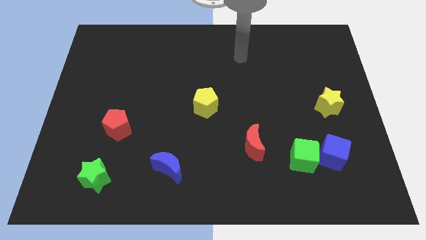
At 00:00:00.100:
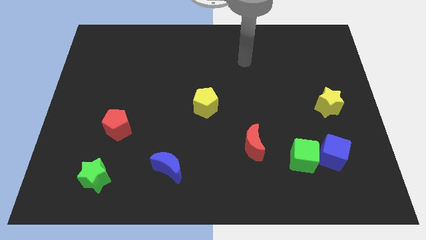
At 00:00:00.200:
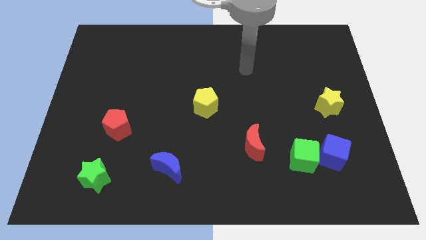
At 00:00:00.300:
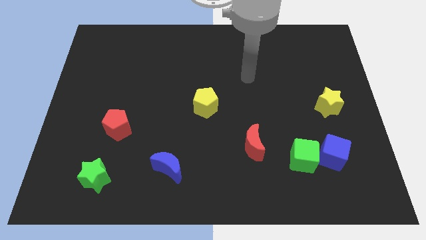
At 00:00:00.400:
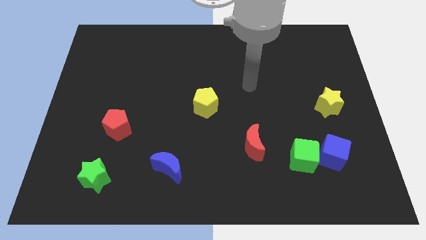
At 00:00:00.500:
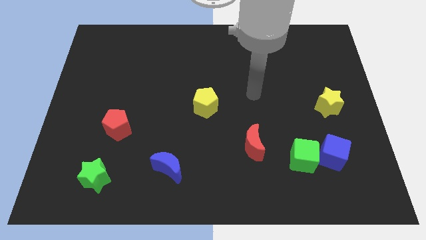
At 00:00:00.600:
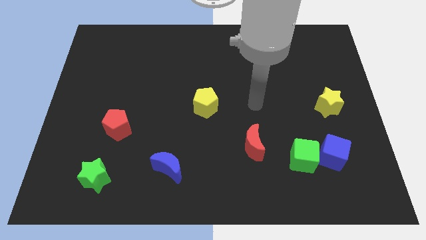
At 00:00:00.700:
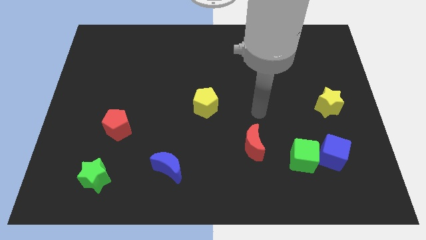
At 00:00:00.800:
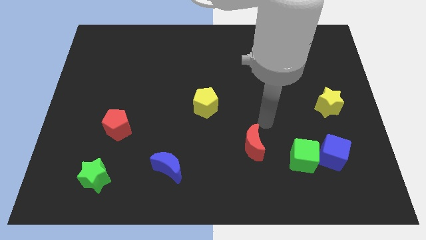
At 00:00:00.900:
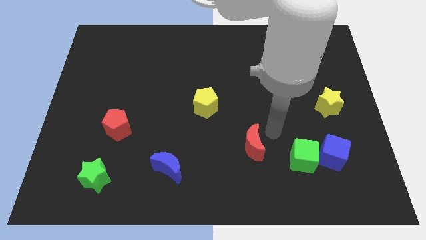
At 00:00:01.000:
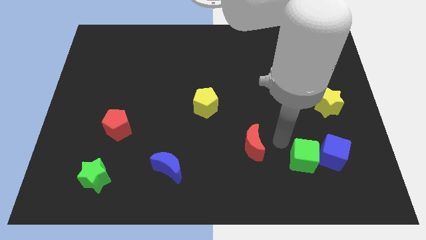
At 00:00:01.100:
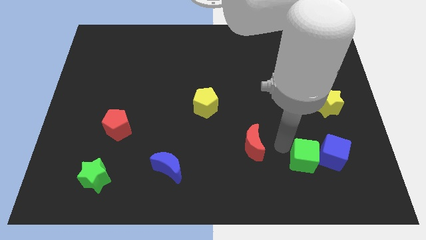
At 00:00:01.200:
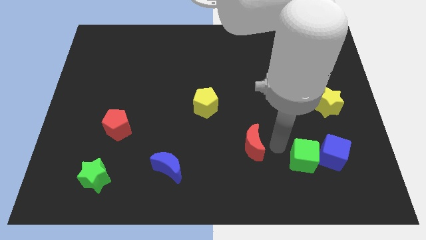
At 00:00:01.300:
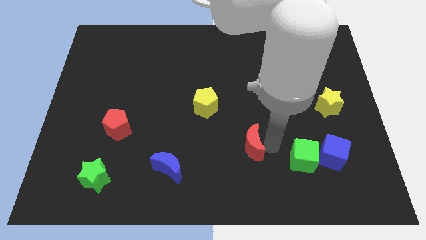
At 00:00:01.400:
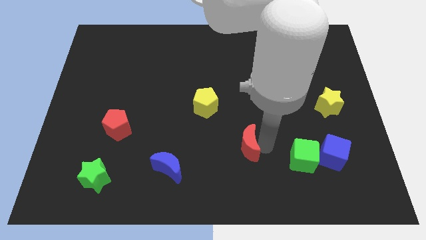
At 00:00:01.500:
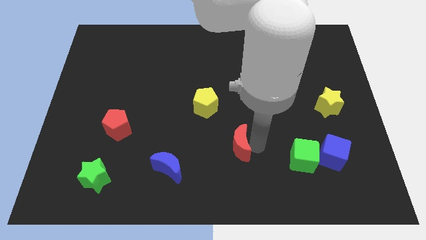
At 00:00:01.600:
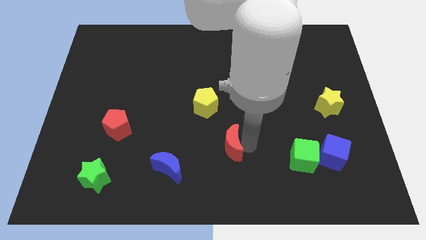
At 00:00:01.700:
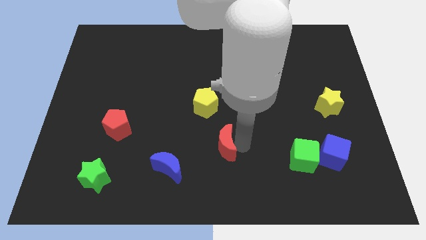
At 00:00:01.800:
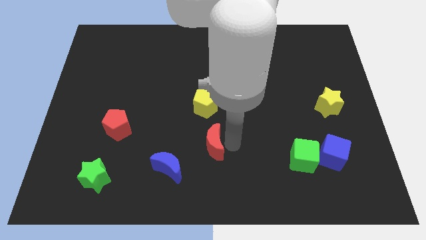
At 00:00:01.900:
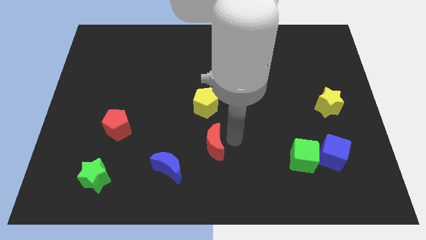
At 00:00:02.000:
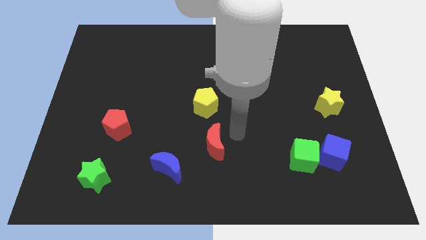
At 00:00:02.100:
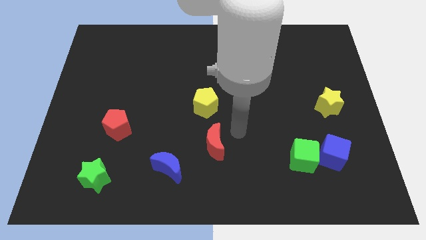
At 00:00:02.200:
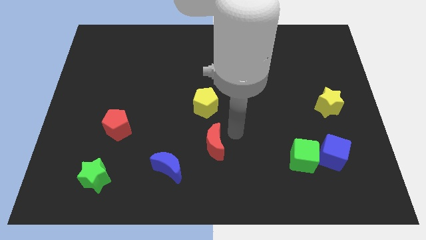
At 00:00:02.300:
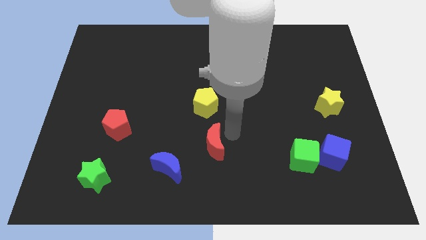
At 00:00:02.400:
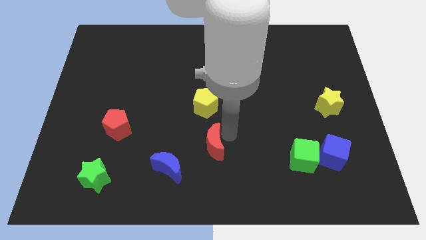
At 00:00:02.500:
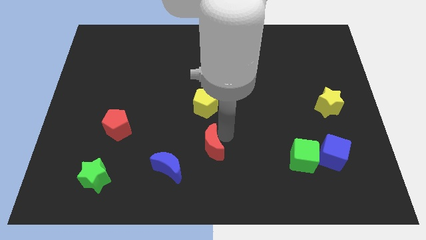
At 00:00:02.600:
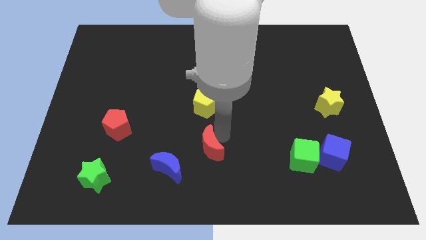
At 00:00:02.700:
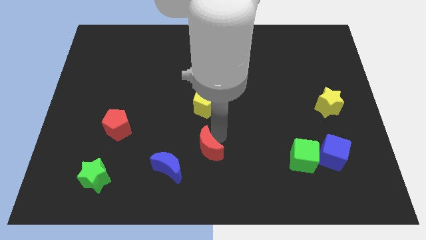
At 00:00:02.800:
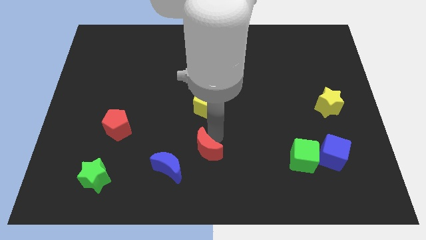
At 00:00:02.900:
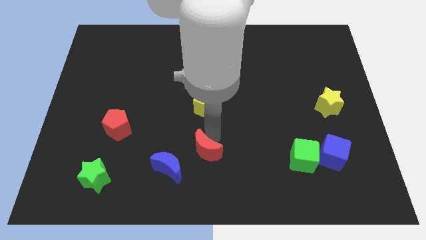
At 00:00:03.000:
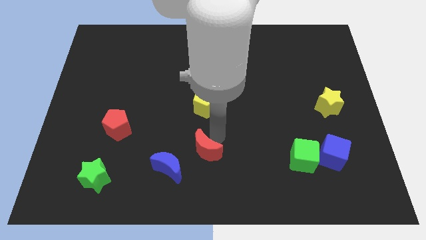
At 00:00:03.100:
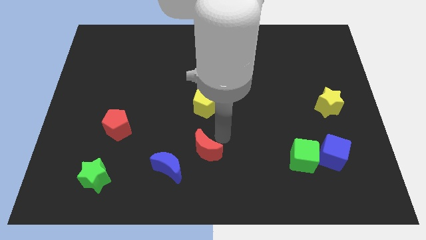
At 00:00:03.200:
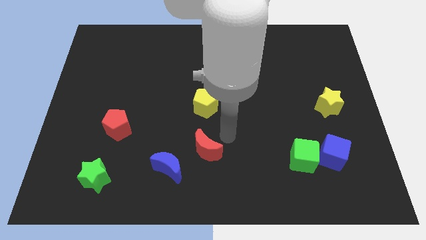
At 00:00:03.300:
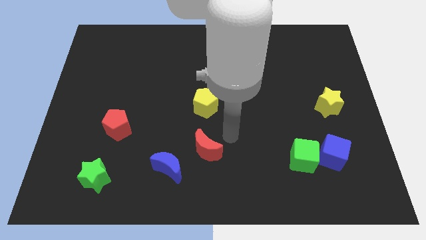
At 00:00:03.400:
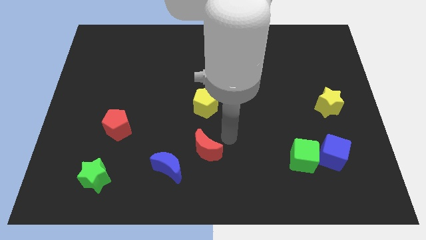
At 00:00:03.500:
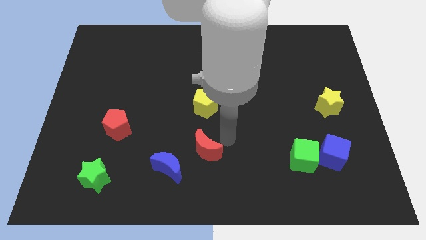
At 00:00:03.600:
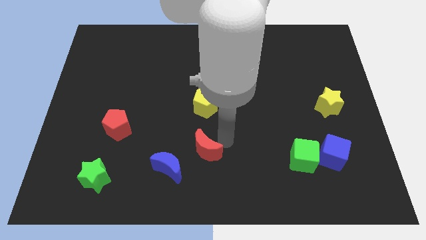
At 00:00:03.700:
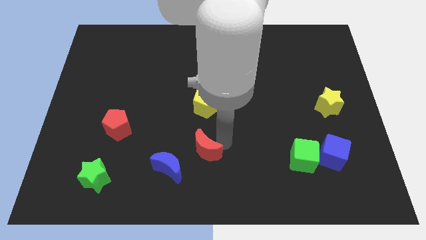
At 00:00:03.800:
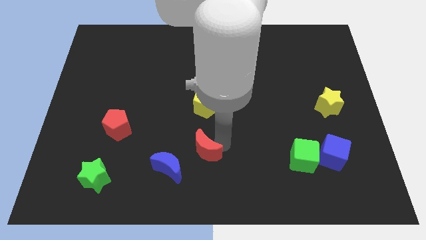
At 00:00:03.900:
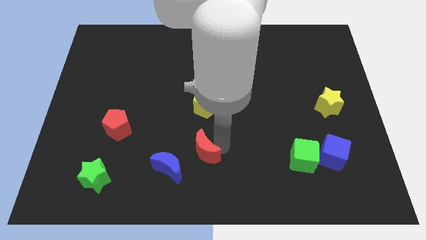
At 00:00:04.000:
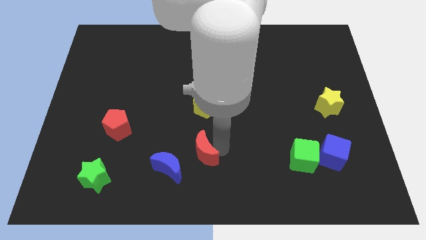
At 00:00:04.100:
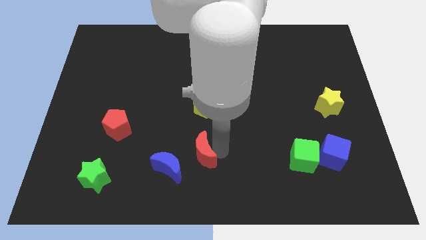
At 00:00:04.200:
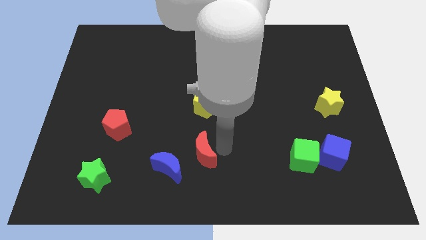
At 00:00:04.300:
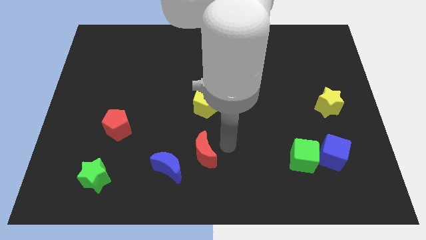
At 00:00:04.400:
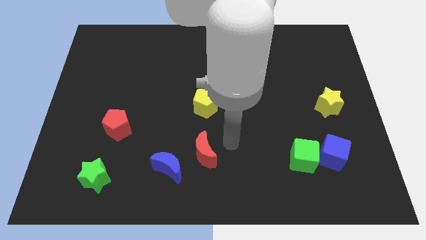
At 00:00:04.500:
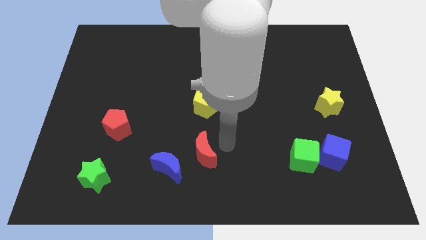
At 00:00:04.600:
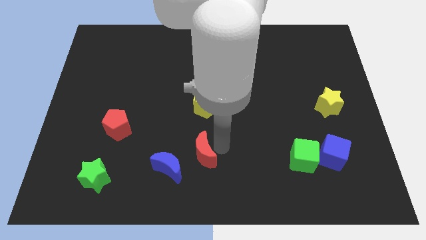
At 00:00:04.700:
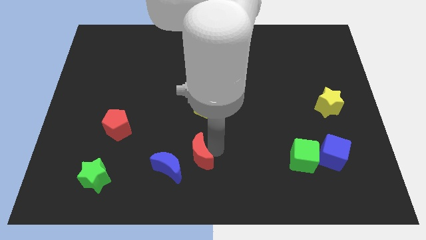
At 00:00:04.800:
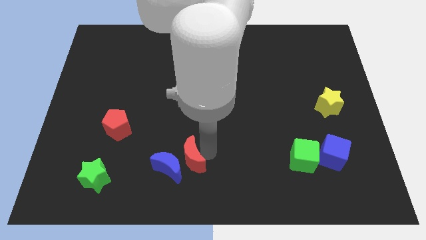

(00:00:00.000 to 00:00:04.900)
put the red moon towards the blue moon

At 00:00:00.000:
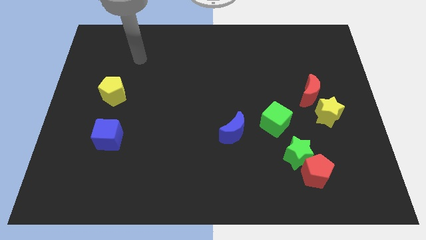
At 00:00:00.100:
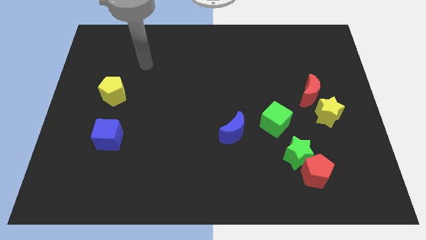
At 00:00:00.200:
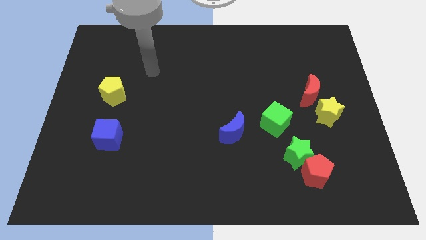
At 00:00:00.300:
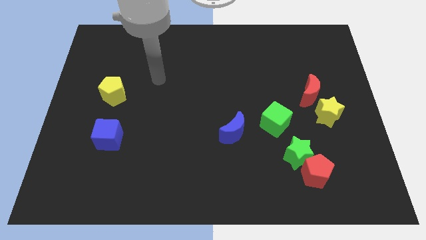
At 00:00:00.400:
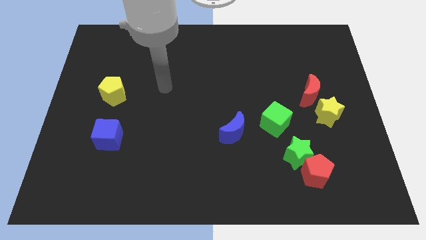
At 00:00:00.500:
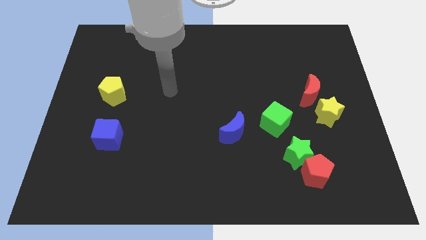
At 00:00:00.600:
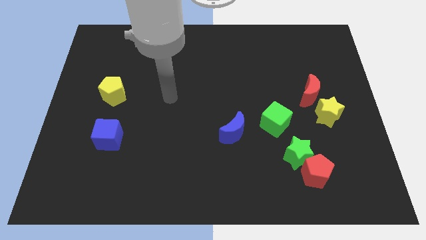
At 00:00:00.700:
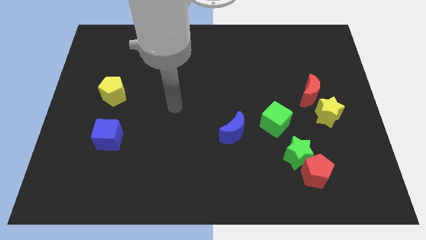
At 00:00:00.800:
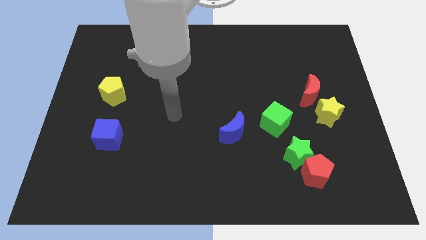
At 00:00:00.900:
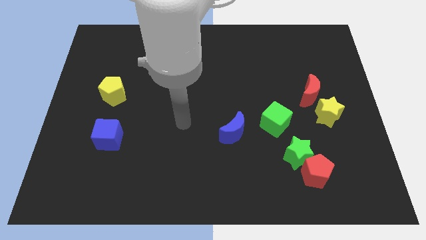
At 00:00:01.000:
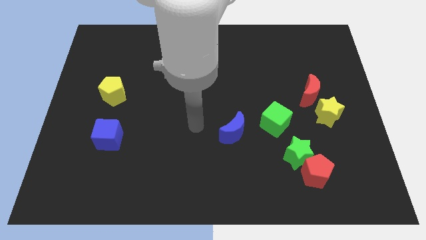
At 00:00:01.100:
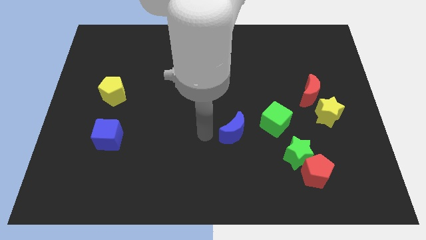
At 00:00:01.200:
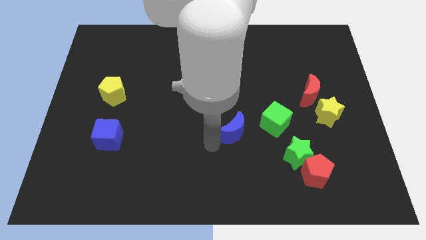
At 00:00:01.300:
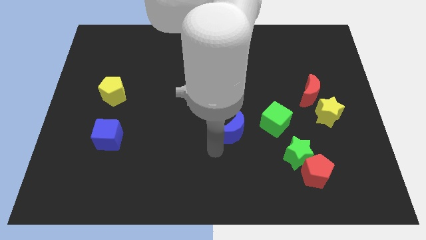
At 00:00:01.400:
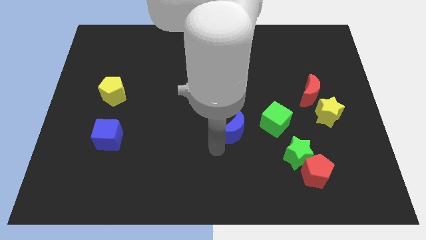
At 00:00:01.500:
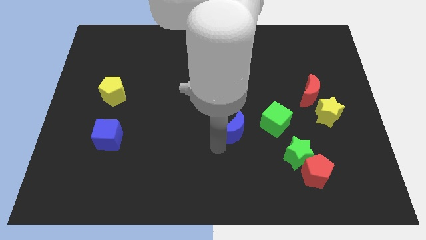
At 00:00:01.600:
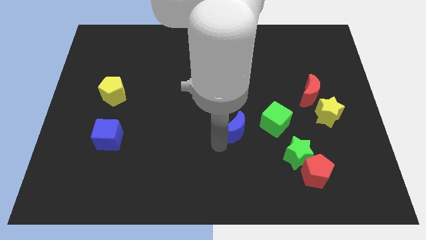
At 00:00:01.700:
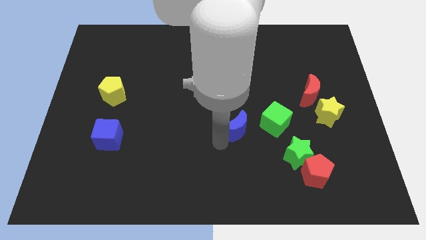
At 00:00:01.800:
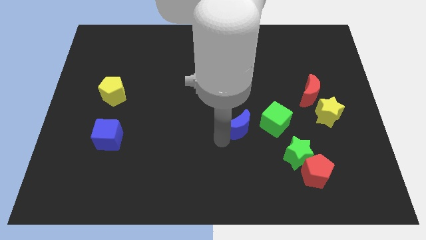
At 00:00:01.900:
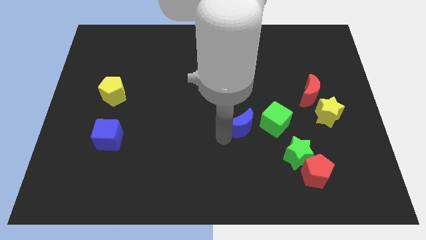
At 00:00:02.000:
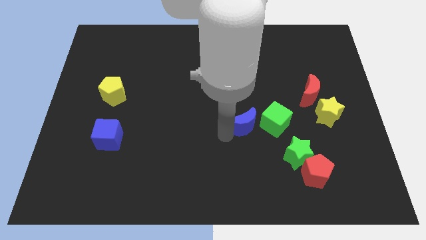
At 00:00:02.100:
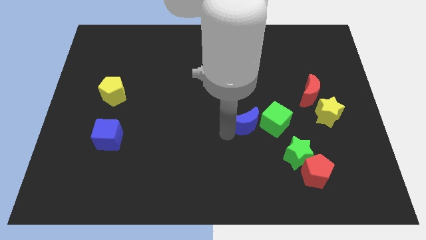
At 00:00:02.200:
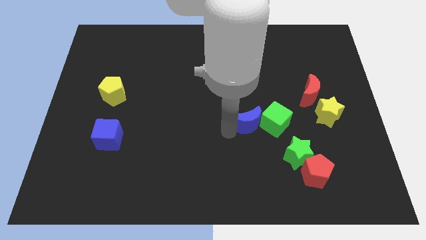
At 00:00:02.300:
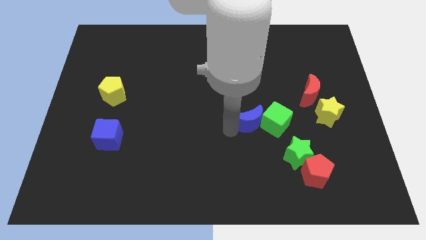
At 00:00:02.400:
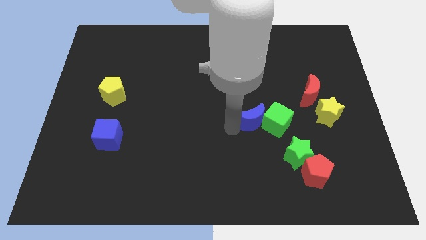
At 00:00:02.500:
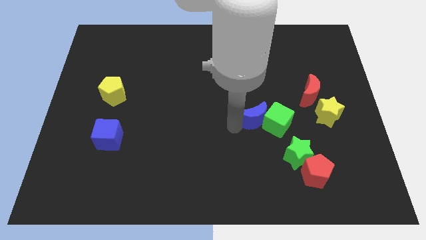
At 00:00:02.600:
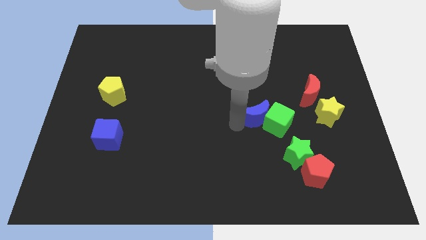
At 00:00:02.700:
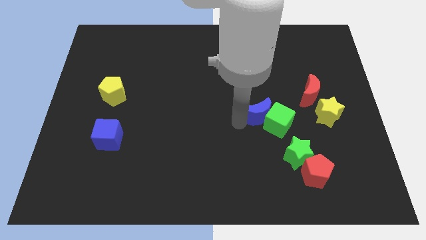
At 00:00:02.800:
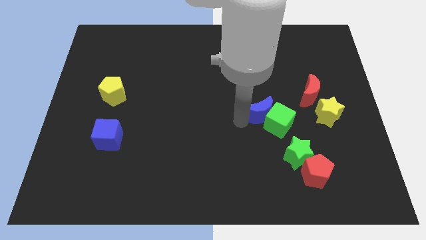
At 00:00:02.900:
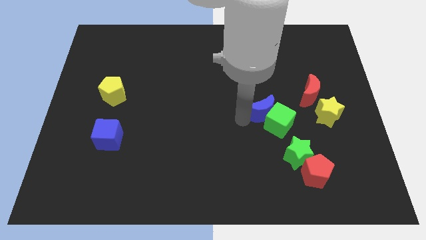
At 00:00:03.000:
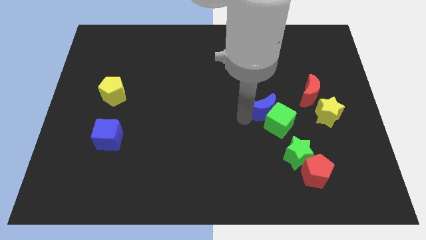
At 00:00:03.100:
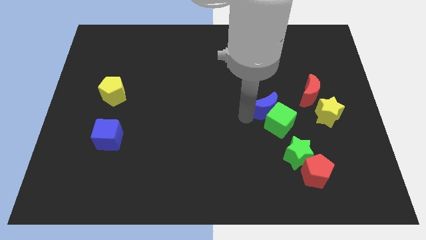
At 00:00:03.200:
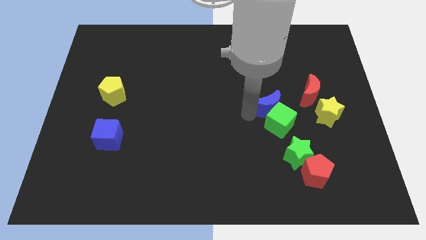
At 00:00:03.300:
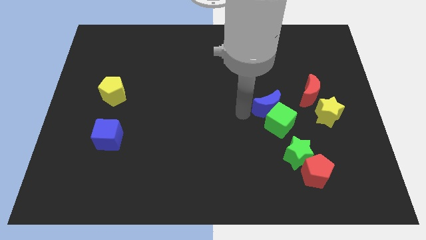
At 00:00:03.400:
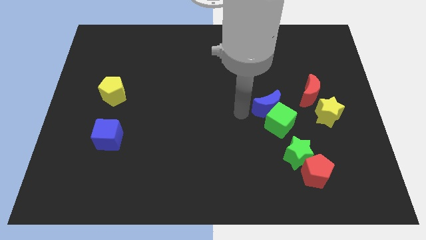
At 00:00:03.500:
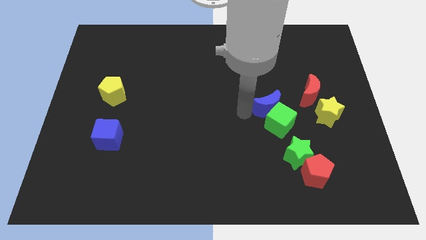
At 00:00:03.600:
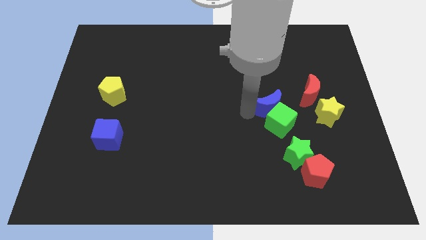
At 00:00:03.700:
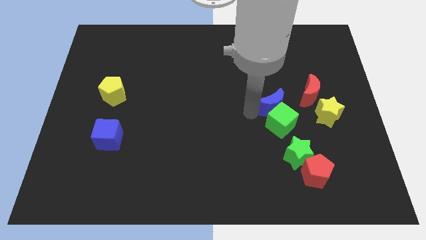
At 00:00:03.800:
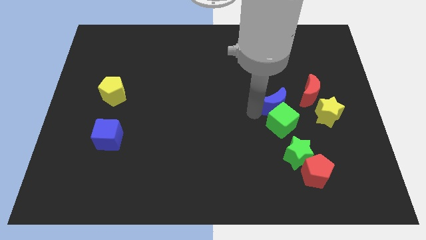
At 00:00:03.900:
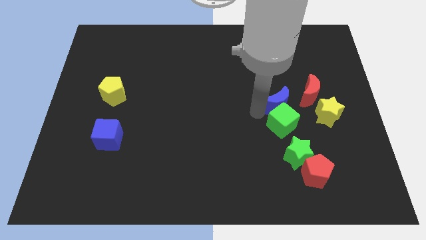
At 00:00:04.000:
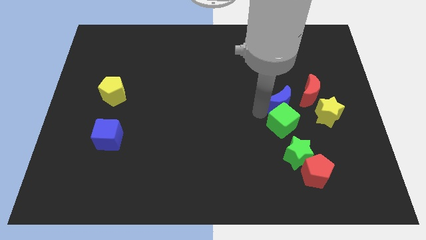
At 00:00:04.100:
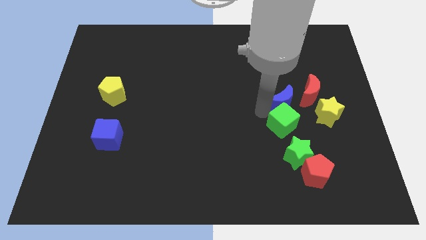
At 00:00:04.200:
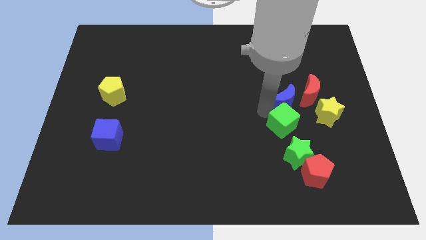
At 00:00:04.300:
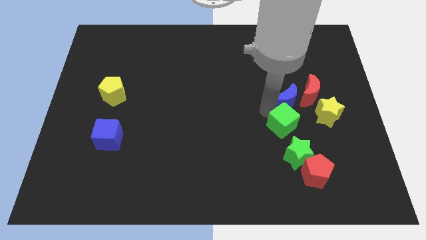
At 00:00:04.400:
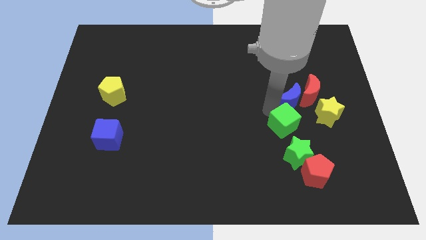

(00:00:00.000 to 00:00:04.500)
move the blue moon next to the red moon
